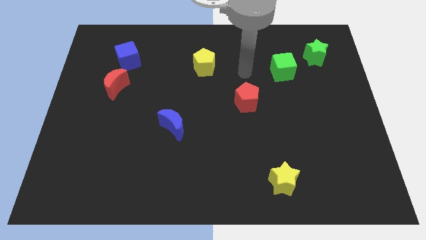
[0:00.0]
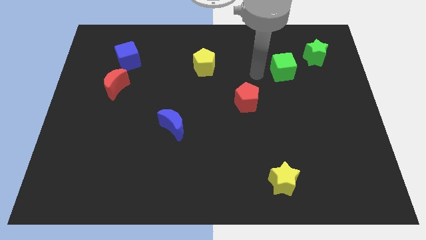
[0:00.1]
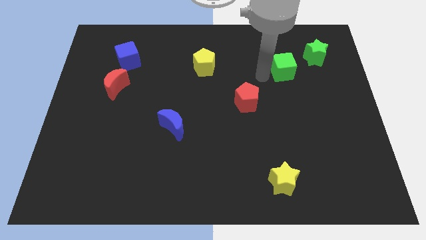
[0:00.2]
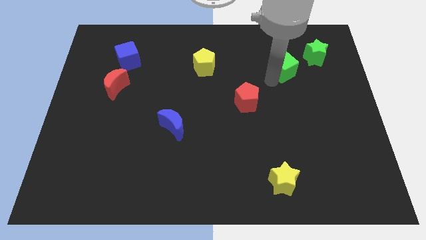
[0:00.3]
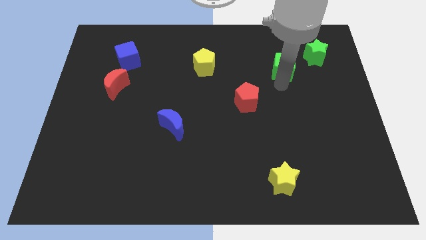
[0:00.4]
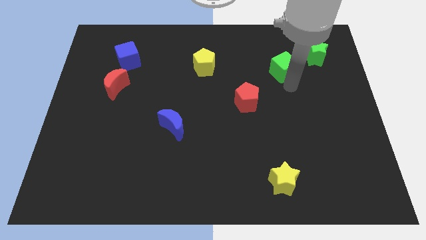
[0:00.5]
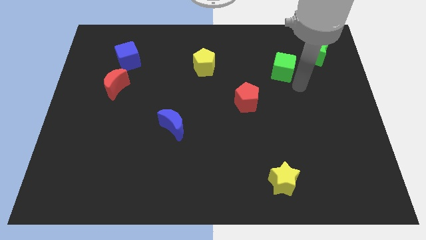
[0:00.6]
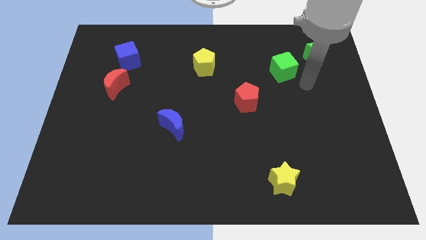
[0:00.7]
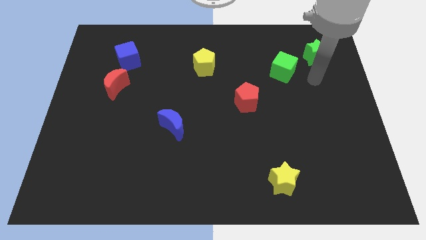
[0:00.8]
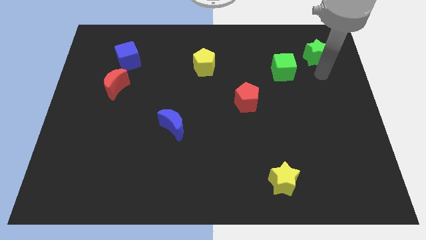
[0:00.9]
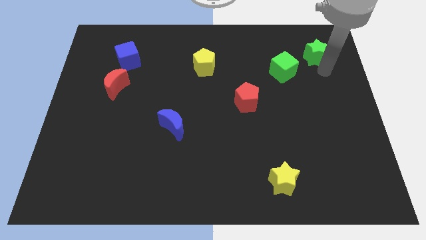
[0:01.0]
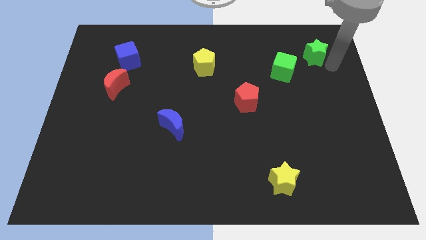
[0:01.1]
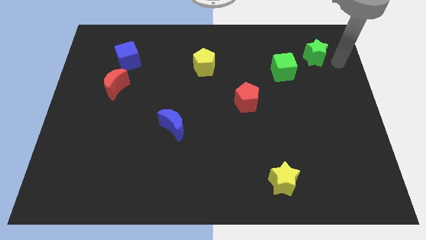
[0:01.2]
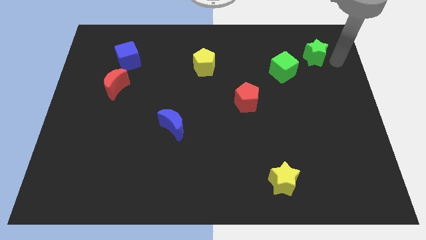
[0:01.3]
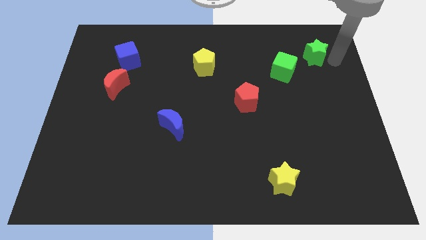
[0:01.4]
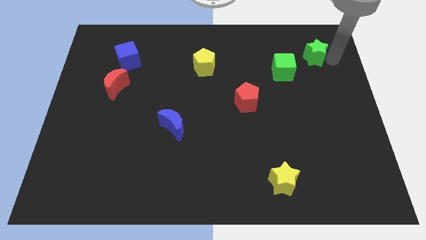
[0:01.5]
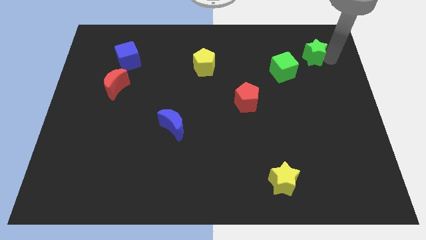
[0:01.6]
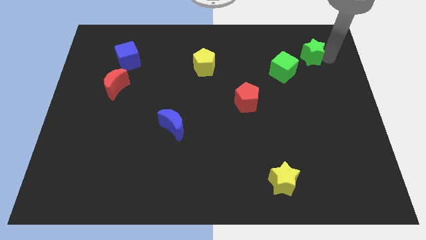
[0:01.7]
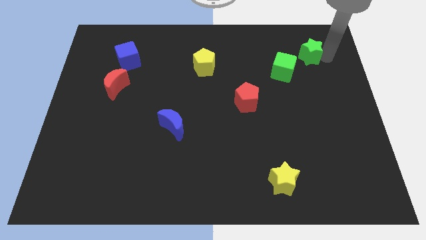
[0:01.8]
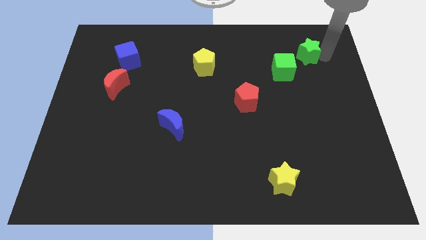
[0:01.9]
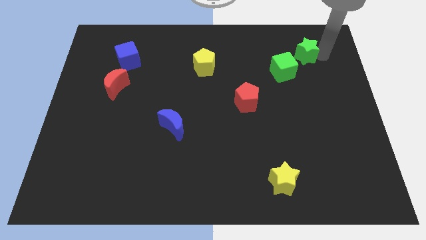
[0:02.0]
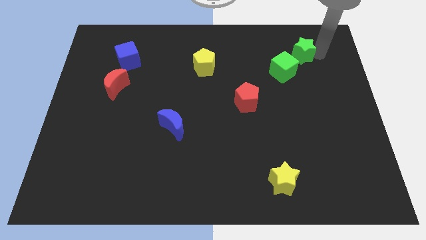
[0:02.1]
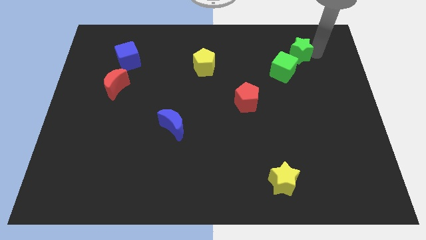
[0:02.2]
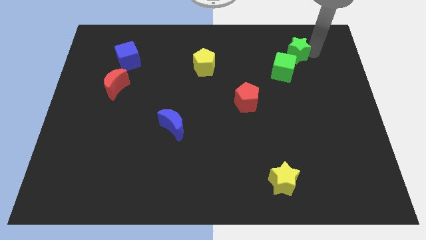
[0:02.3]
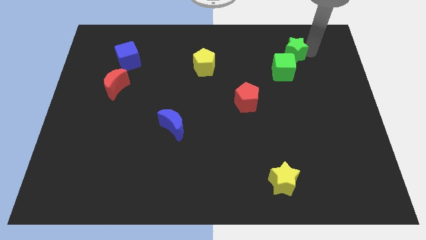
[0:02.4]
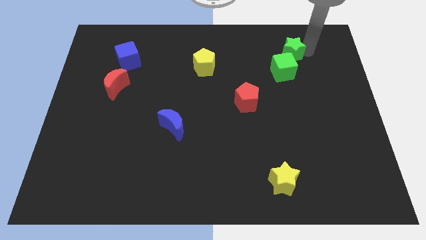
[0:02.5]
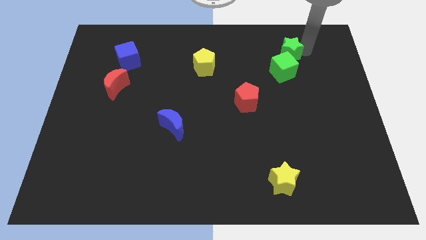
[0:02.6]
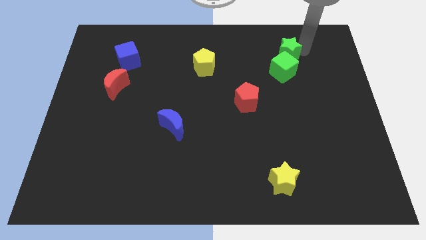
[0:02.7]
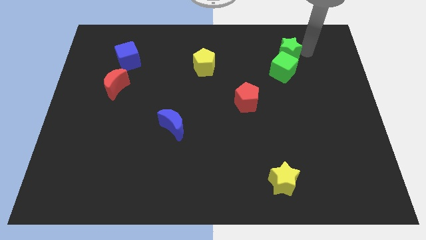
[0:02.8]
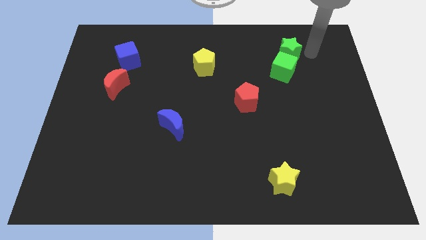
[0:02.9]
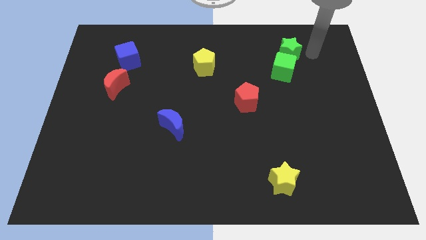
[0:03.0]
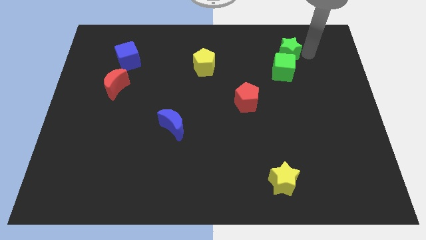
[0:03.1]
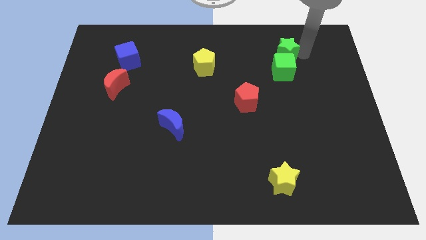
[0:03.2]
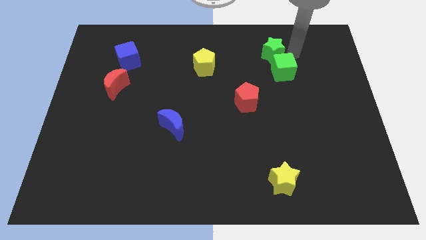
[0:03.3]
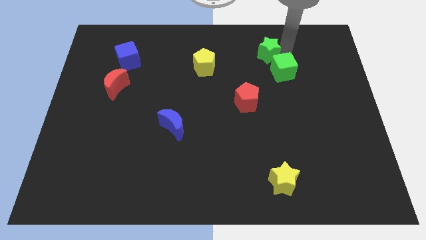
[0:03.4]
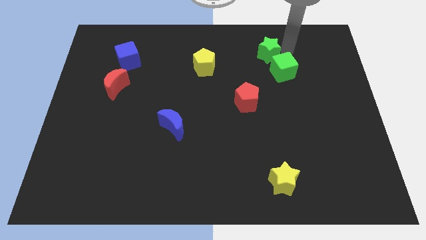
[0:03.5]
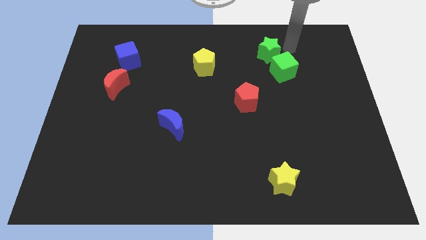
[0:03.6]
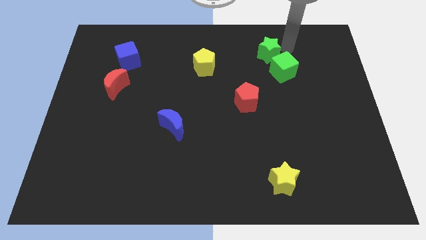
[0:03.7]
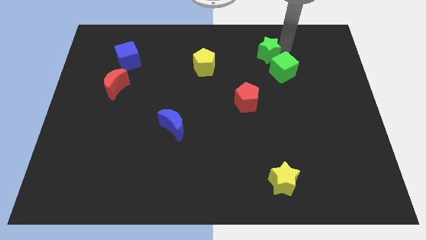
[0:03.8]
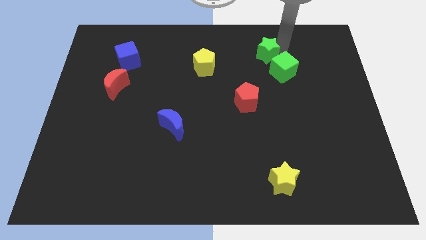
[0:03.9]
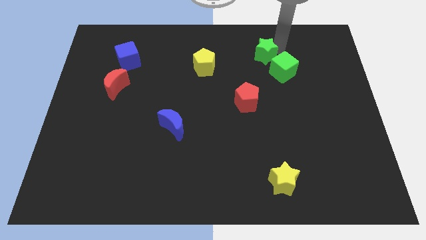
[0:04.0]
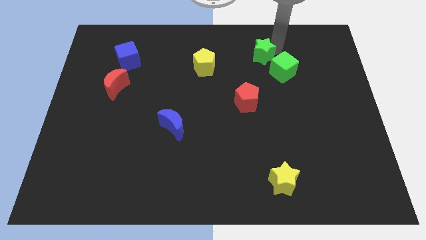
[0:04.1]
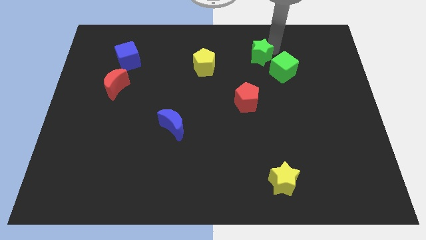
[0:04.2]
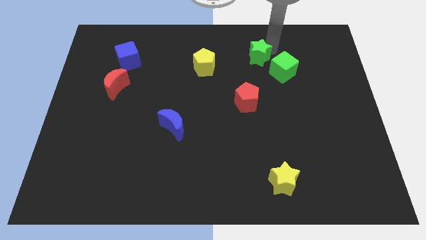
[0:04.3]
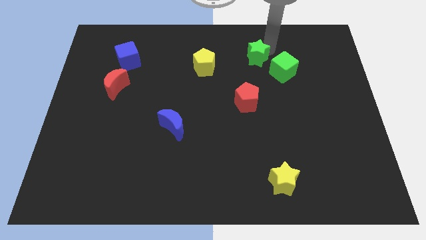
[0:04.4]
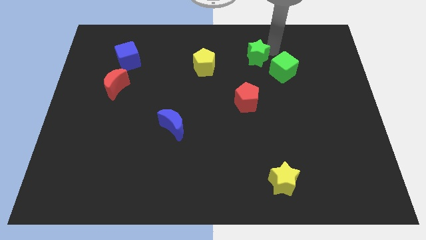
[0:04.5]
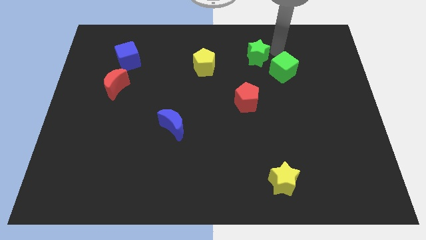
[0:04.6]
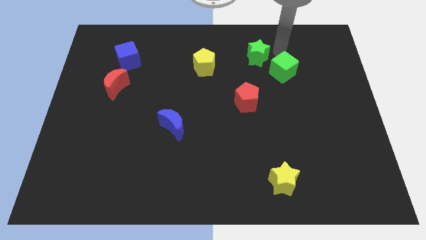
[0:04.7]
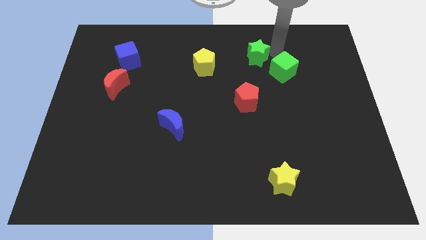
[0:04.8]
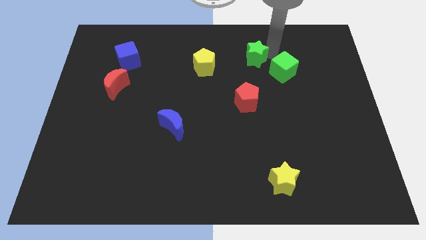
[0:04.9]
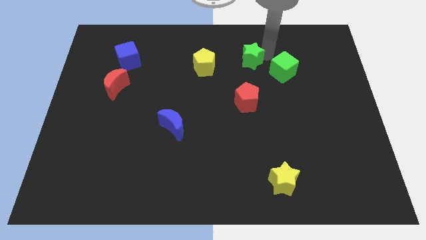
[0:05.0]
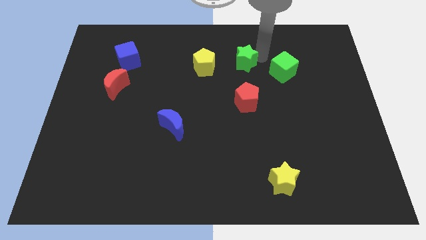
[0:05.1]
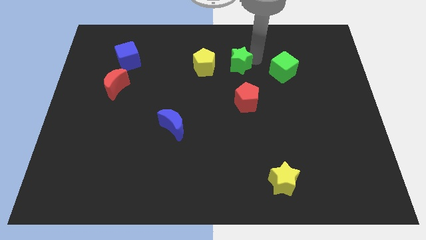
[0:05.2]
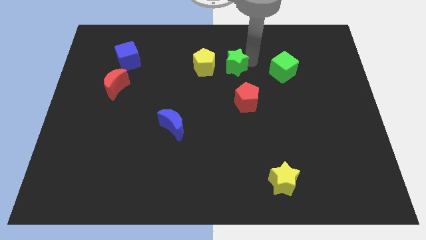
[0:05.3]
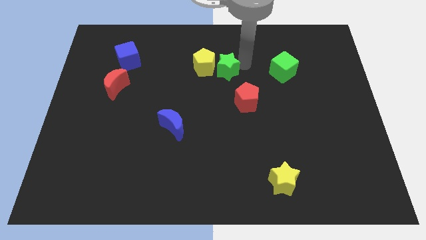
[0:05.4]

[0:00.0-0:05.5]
push the green star close to the yellow pentagon

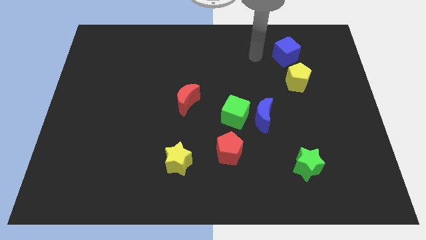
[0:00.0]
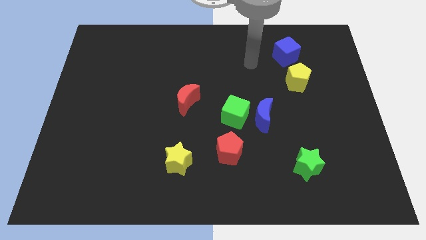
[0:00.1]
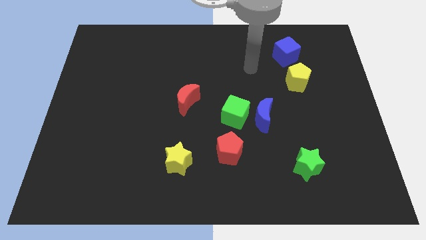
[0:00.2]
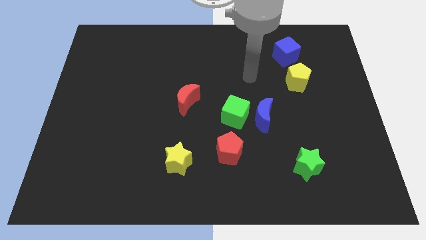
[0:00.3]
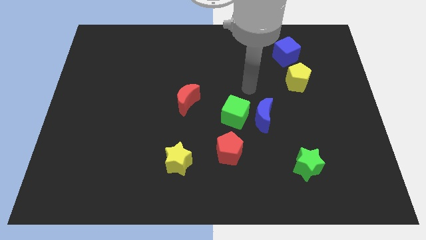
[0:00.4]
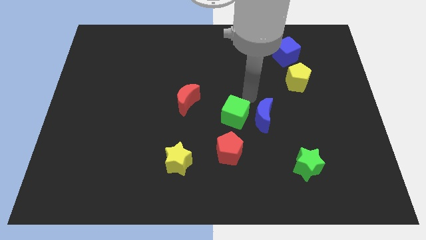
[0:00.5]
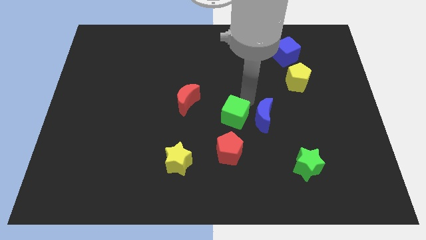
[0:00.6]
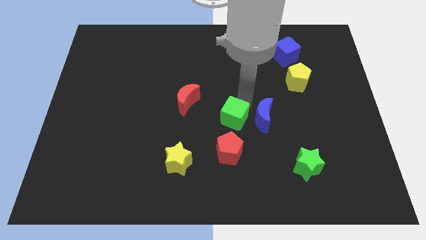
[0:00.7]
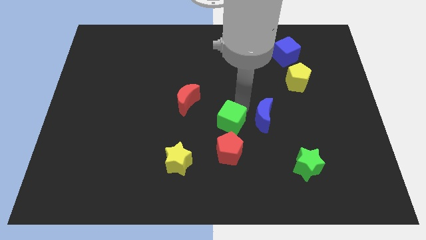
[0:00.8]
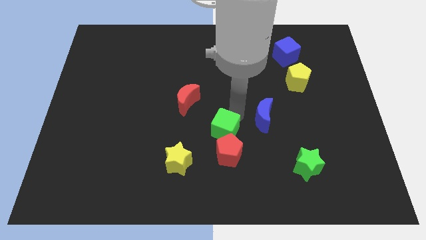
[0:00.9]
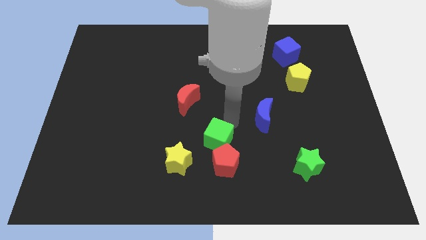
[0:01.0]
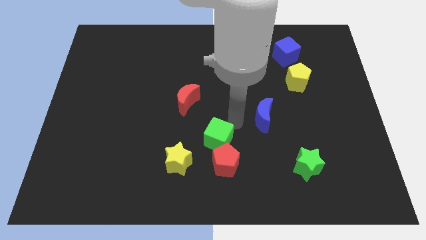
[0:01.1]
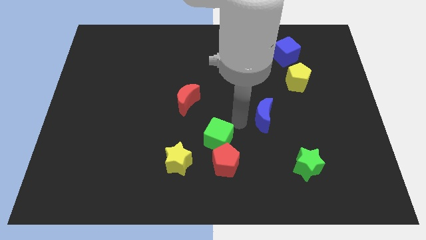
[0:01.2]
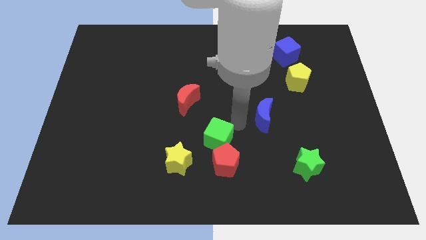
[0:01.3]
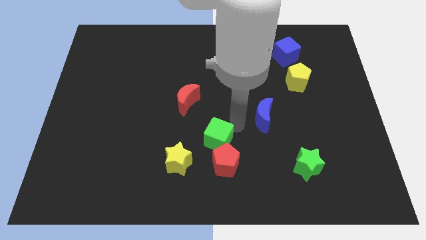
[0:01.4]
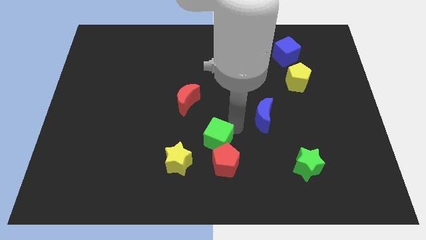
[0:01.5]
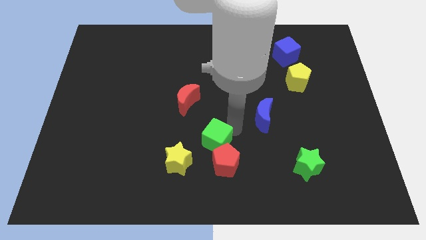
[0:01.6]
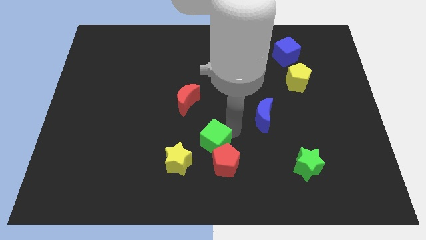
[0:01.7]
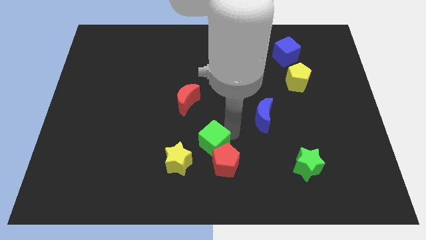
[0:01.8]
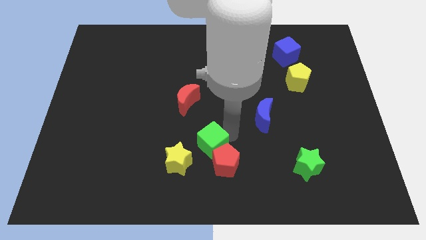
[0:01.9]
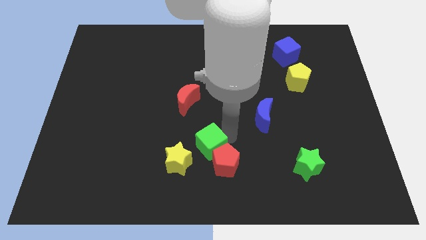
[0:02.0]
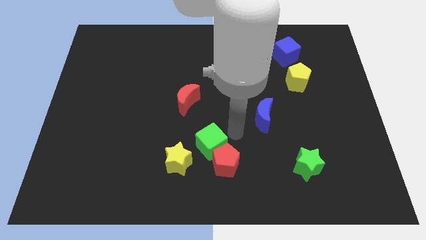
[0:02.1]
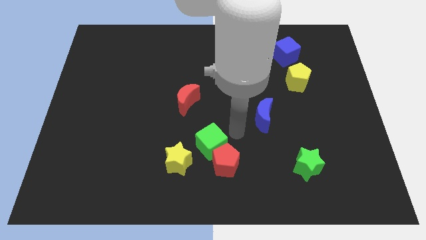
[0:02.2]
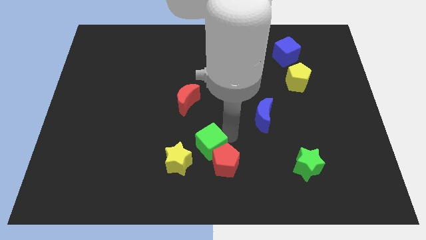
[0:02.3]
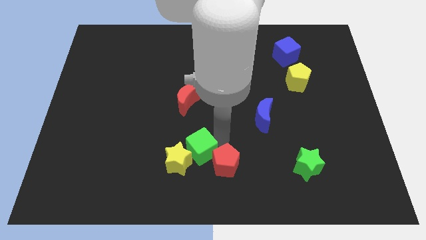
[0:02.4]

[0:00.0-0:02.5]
slide the green cube towards the yellow star
